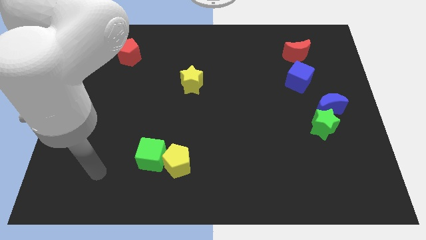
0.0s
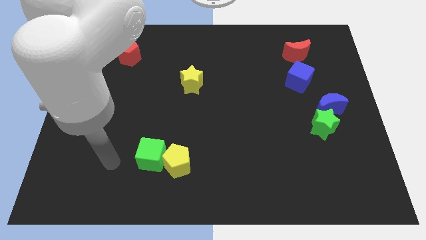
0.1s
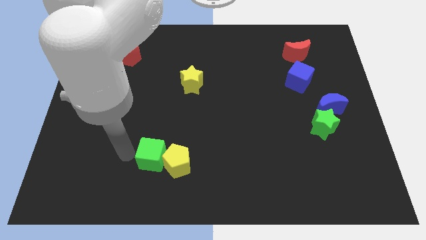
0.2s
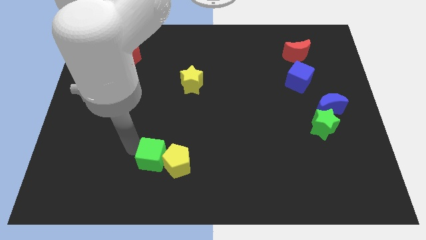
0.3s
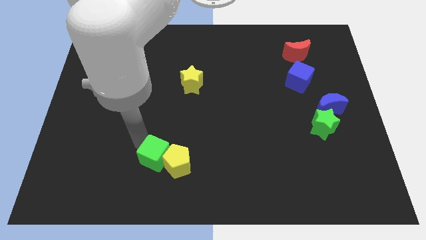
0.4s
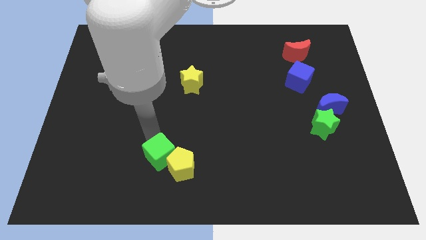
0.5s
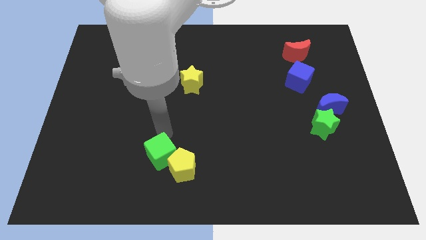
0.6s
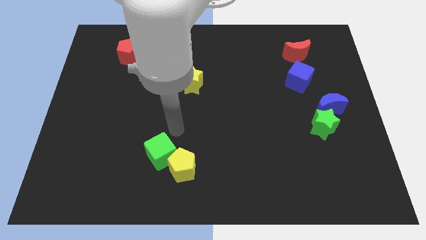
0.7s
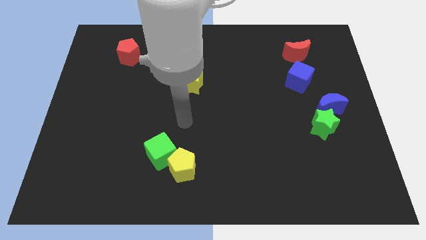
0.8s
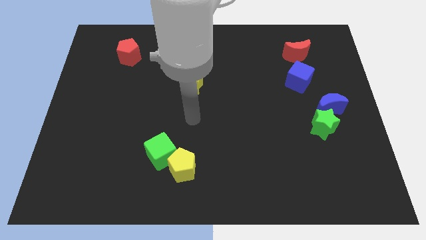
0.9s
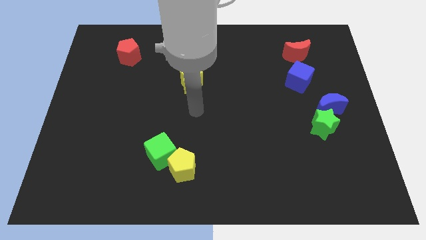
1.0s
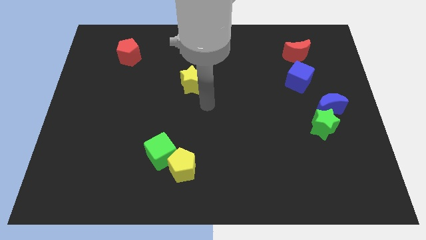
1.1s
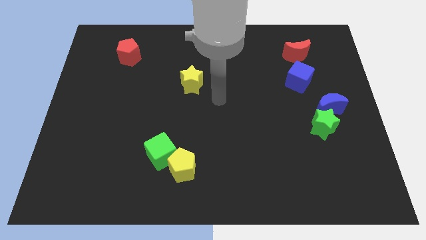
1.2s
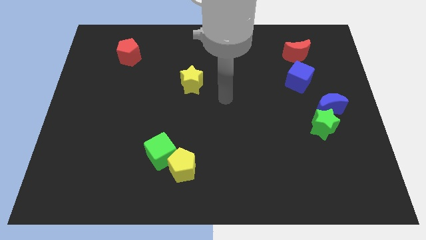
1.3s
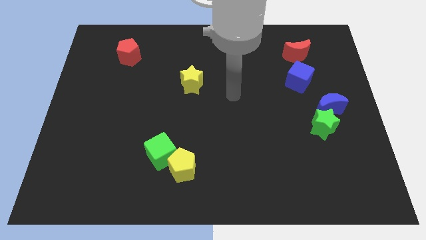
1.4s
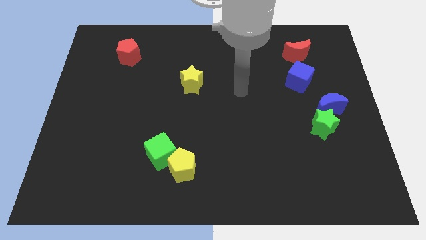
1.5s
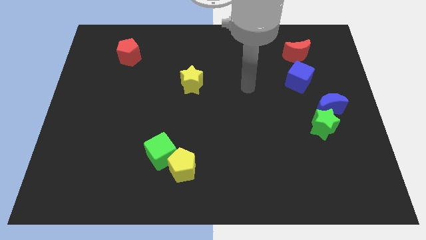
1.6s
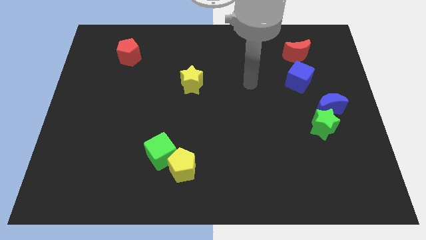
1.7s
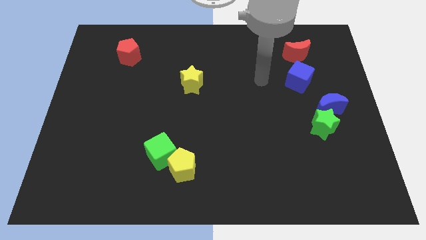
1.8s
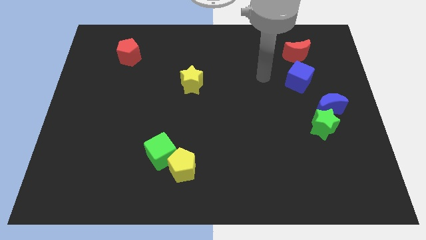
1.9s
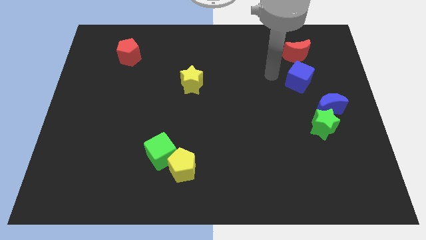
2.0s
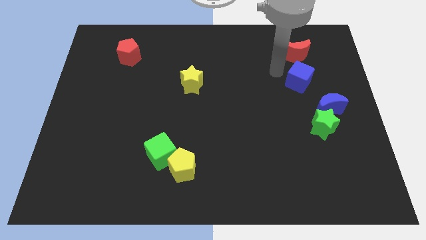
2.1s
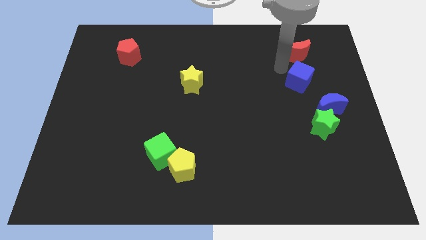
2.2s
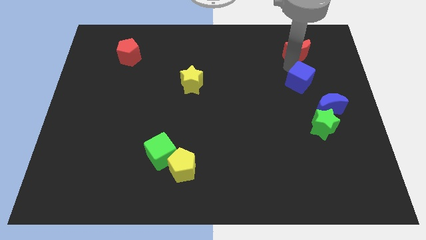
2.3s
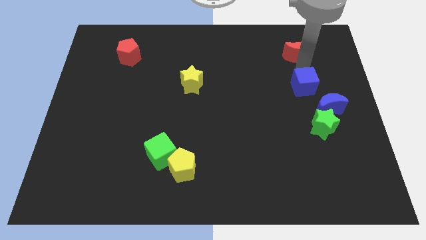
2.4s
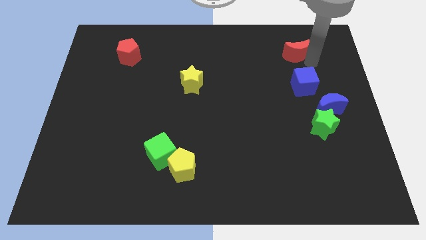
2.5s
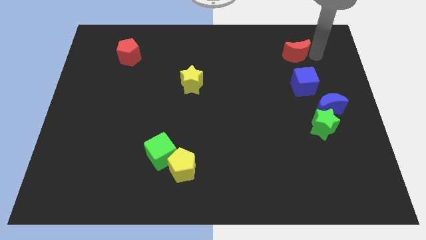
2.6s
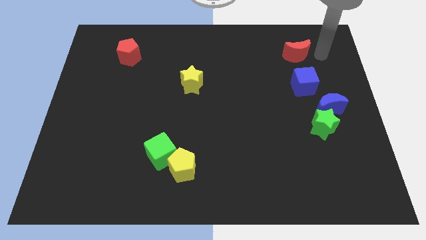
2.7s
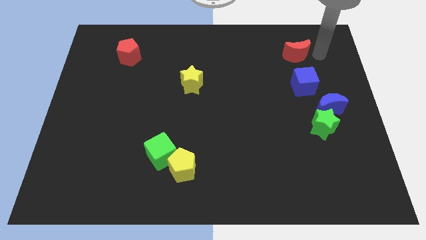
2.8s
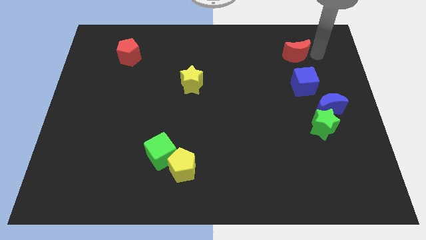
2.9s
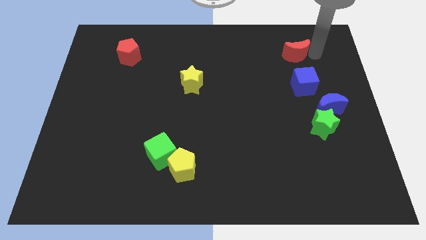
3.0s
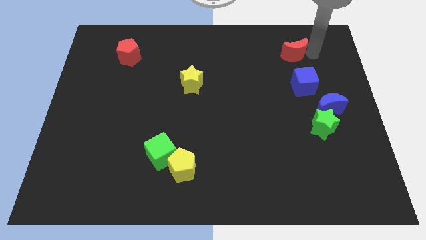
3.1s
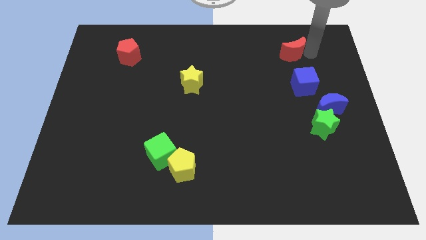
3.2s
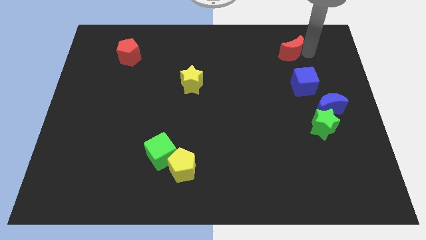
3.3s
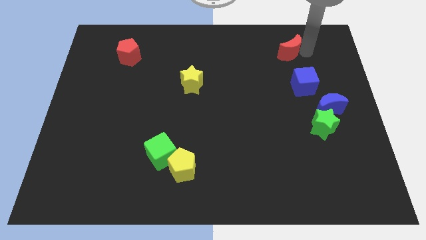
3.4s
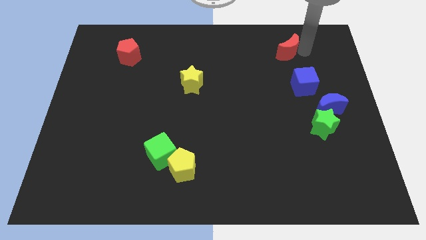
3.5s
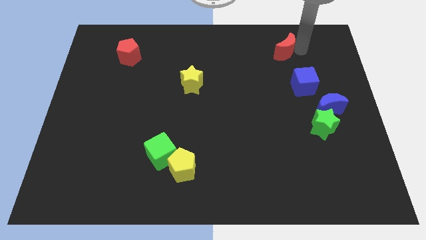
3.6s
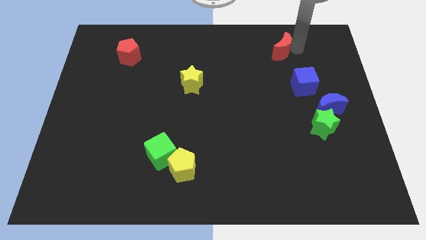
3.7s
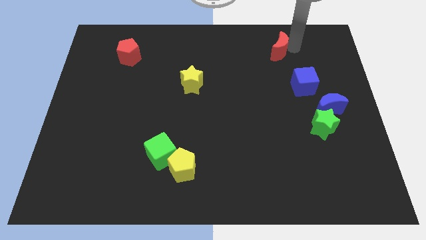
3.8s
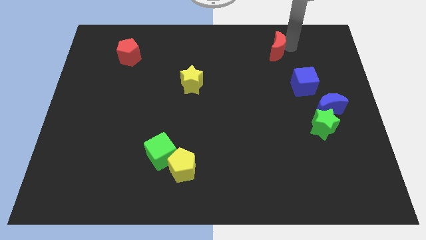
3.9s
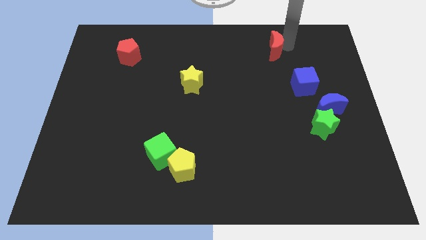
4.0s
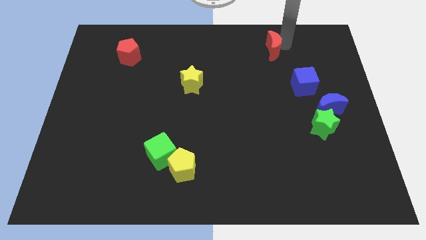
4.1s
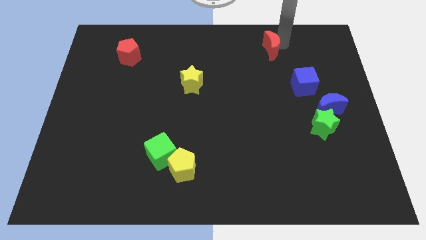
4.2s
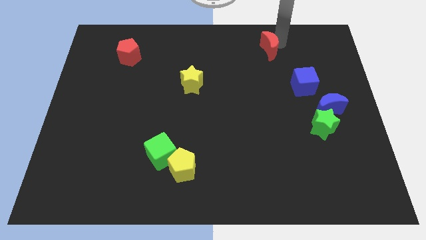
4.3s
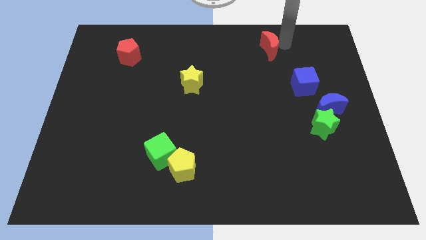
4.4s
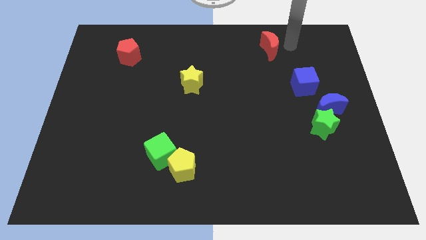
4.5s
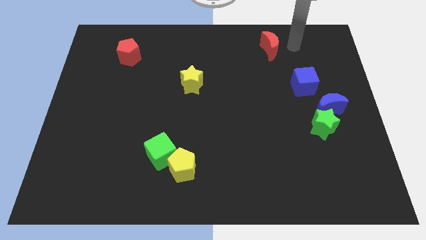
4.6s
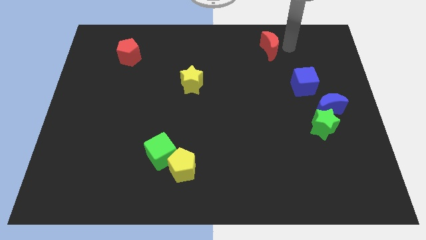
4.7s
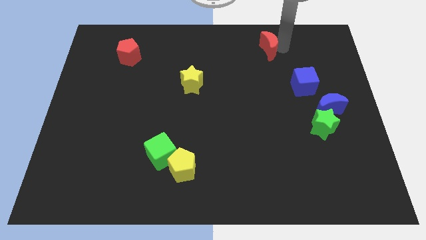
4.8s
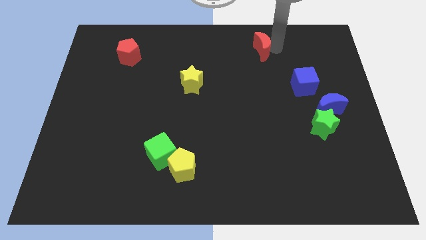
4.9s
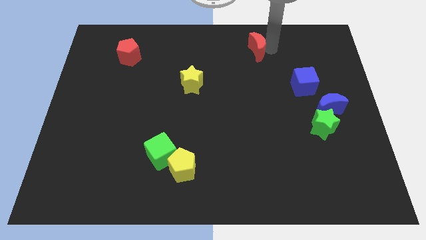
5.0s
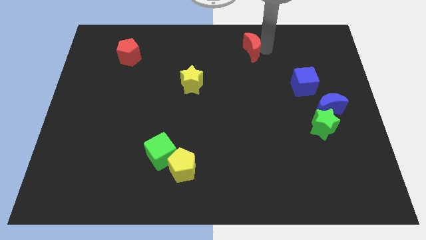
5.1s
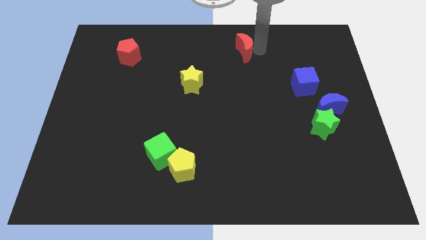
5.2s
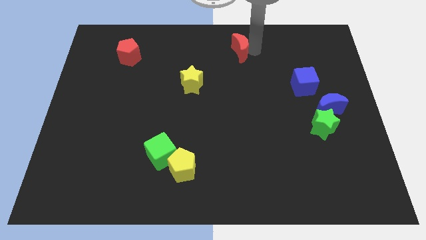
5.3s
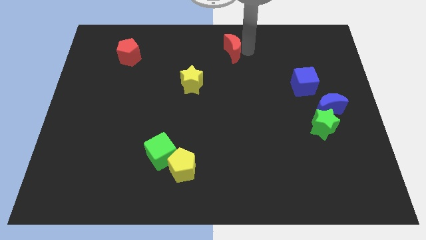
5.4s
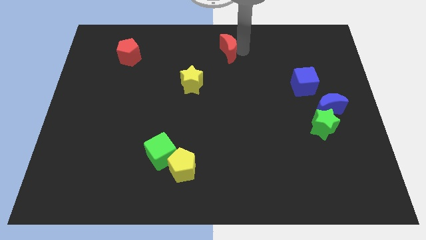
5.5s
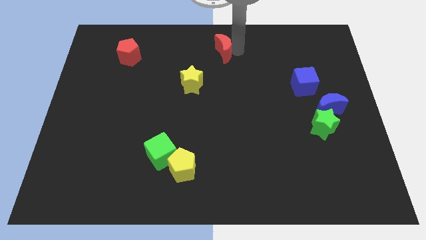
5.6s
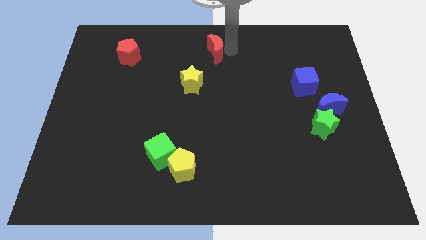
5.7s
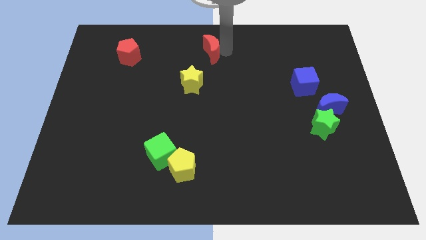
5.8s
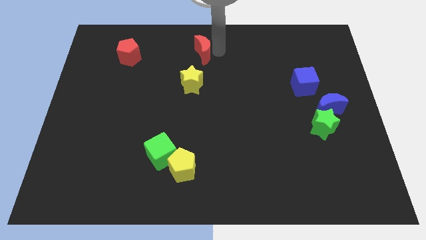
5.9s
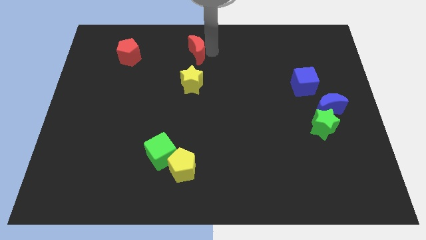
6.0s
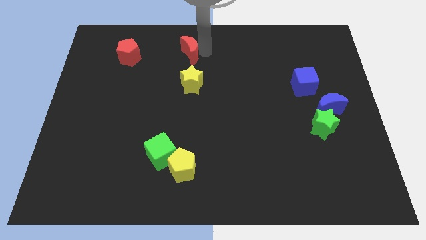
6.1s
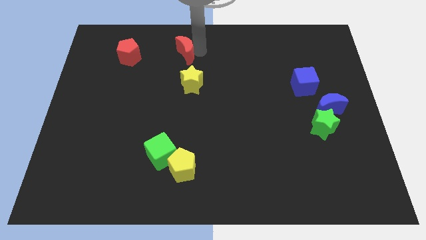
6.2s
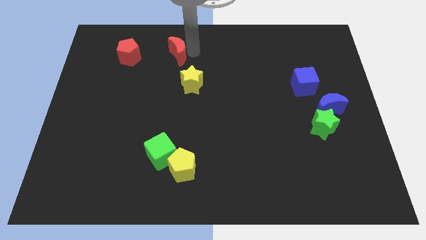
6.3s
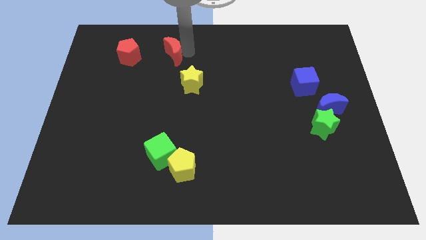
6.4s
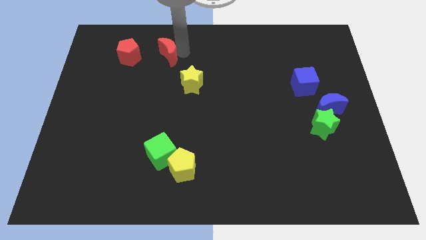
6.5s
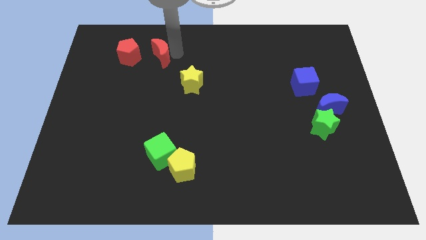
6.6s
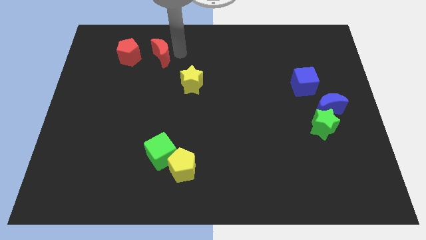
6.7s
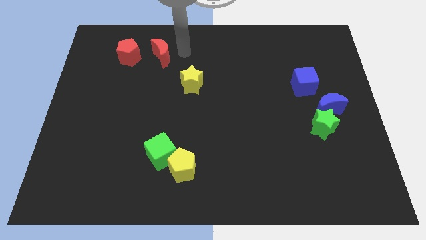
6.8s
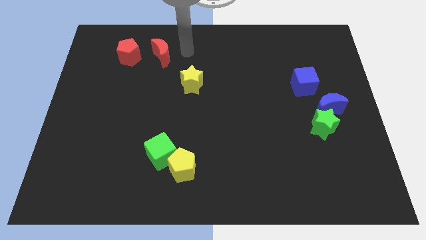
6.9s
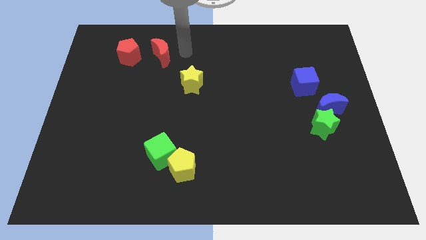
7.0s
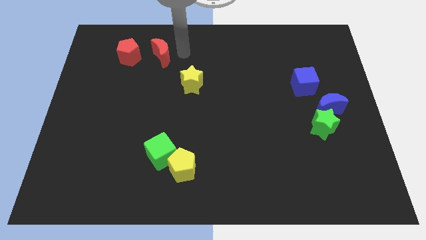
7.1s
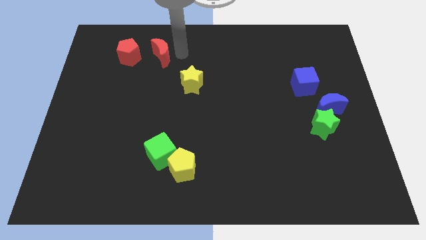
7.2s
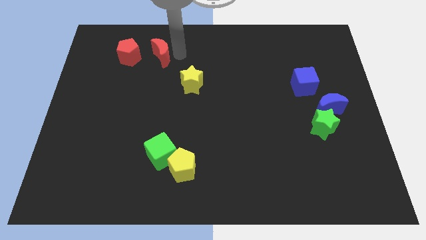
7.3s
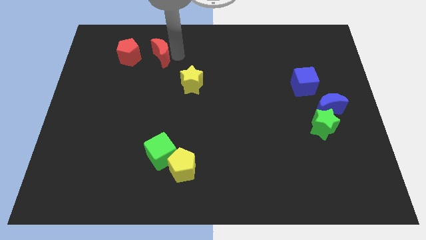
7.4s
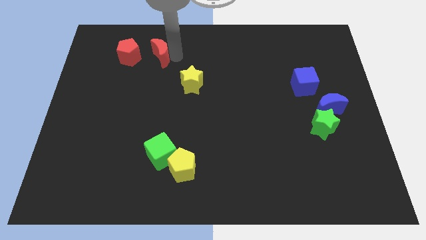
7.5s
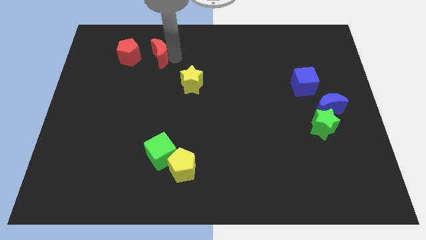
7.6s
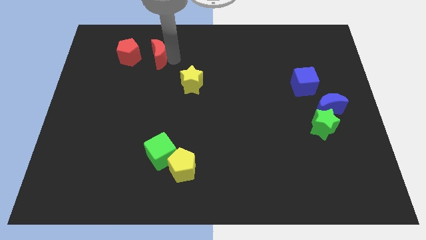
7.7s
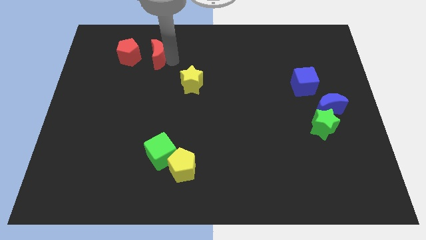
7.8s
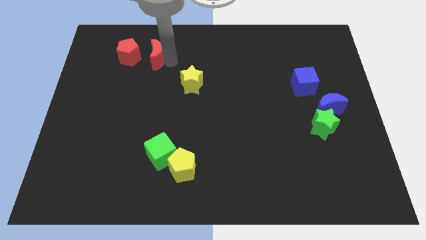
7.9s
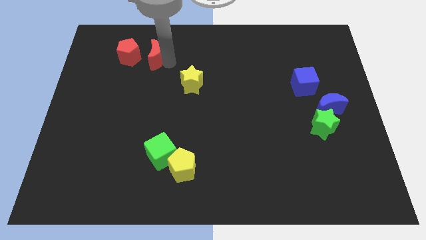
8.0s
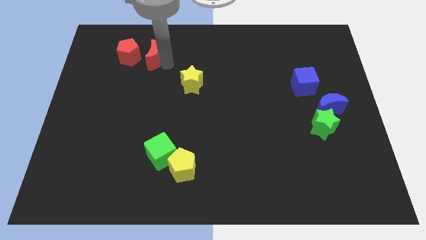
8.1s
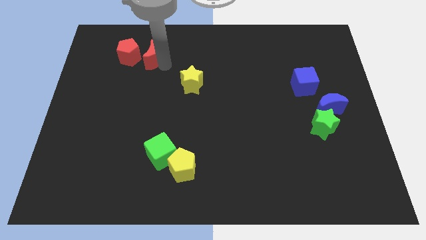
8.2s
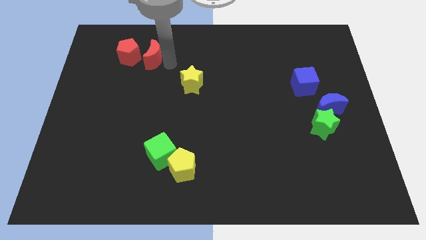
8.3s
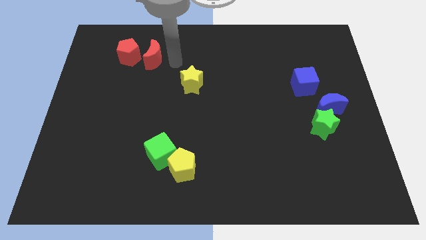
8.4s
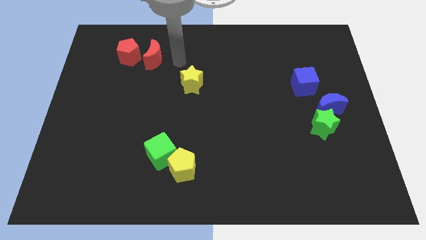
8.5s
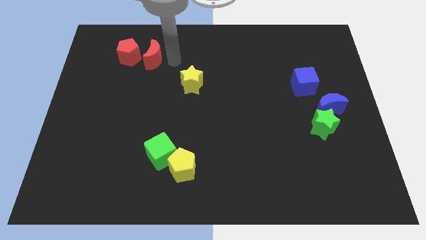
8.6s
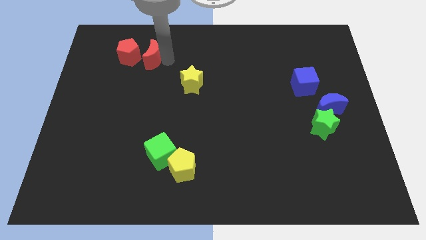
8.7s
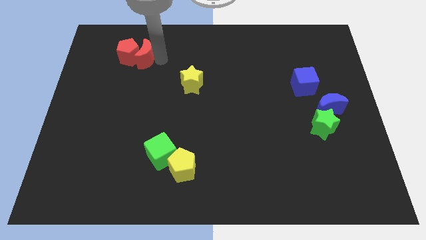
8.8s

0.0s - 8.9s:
put the red moon next to the red pentagon
